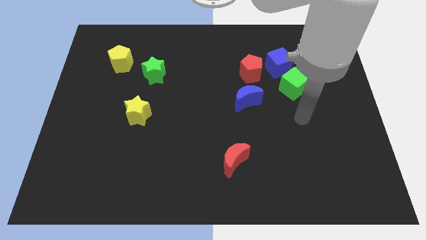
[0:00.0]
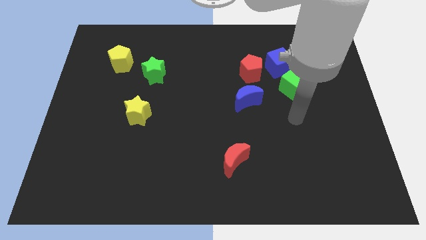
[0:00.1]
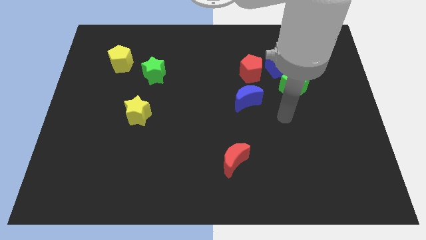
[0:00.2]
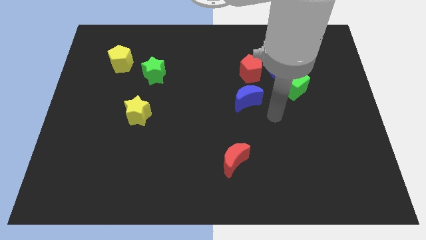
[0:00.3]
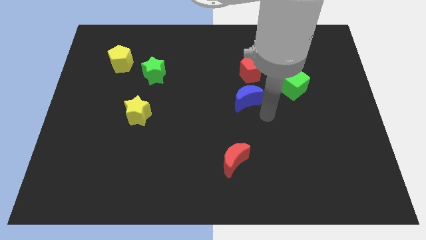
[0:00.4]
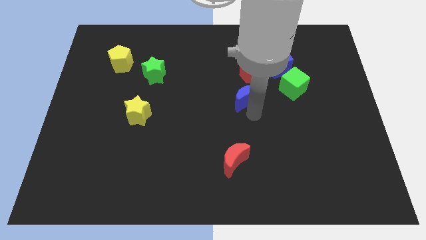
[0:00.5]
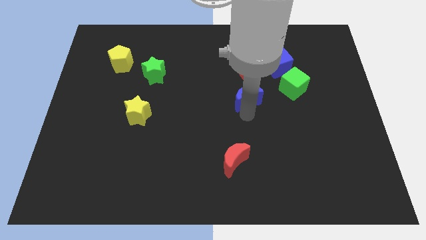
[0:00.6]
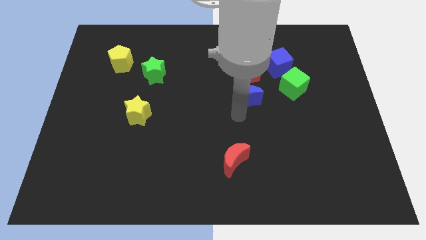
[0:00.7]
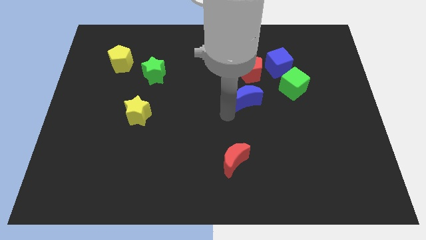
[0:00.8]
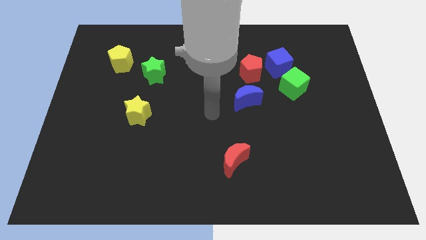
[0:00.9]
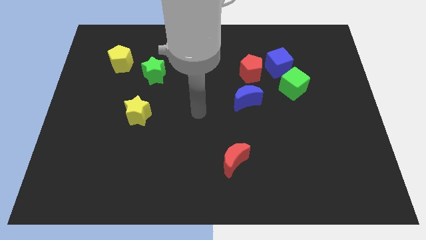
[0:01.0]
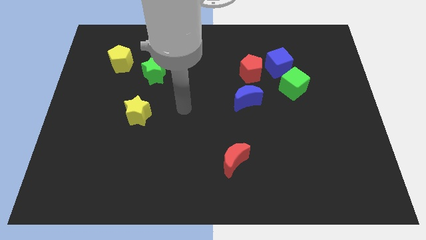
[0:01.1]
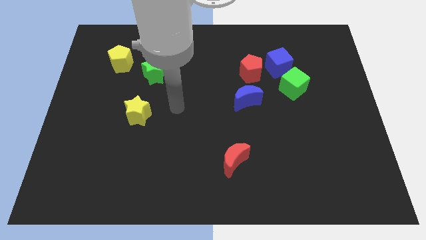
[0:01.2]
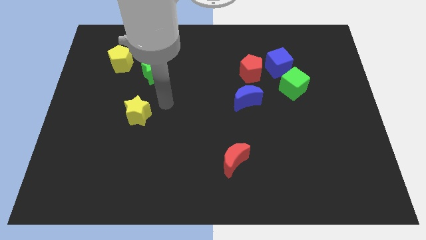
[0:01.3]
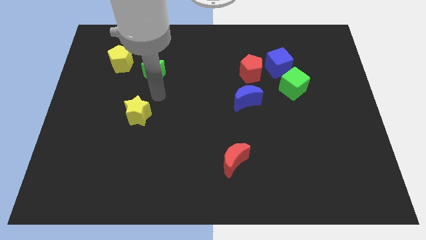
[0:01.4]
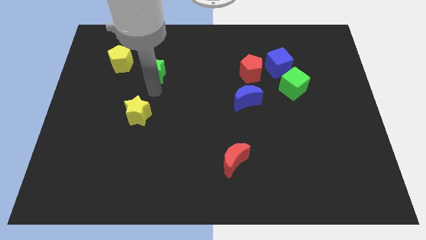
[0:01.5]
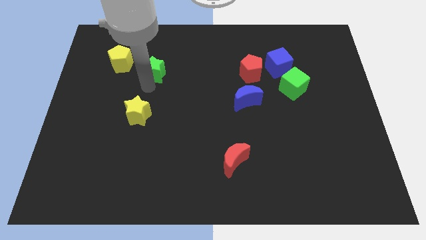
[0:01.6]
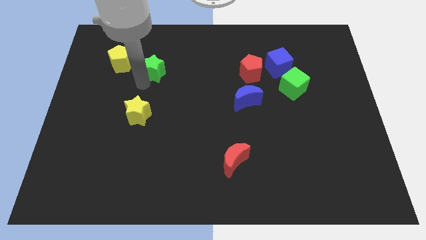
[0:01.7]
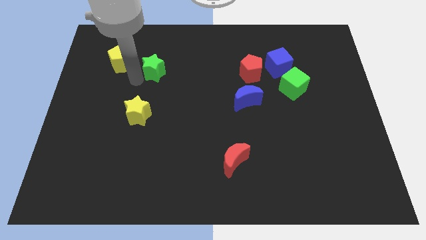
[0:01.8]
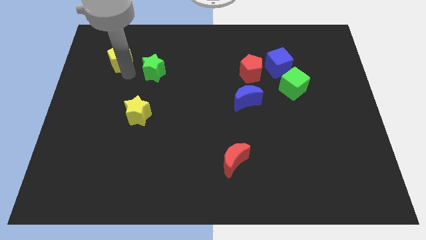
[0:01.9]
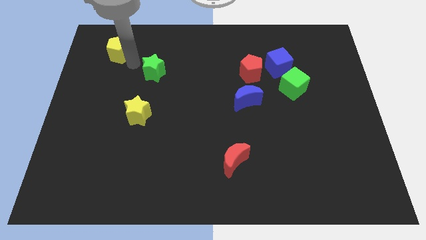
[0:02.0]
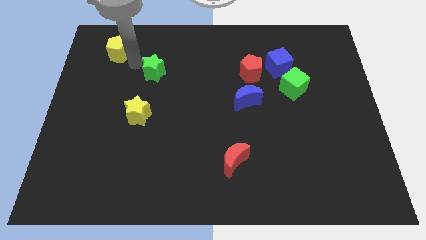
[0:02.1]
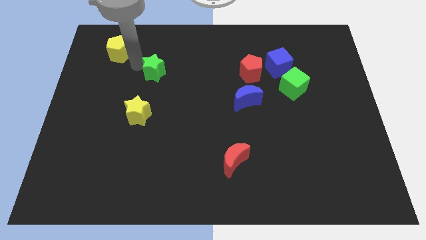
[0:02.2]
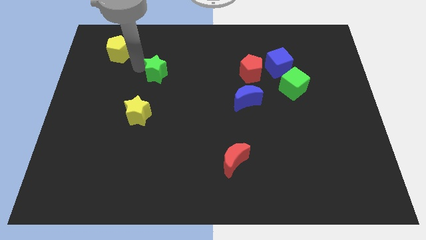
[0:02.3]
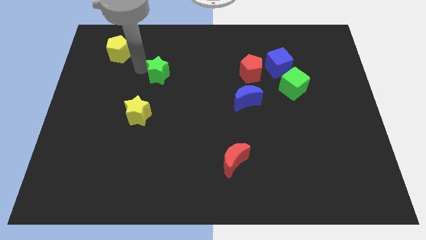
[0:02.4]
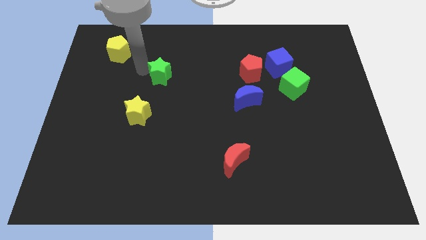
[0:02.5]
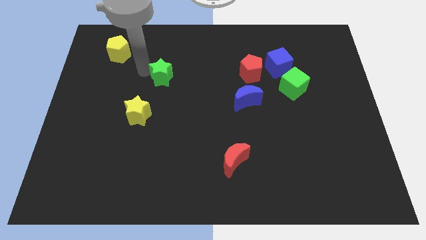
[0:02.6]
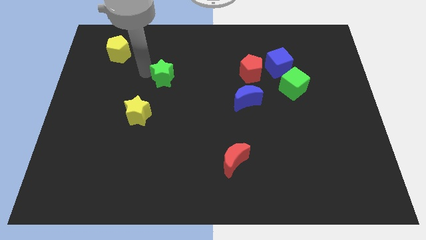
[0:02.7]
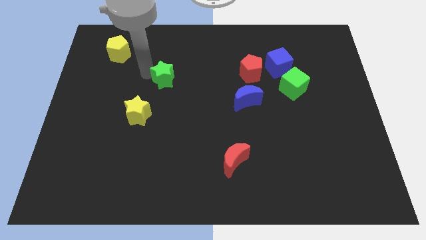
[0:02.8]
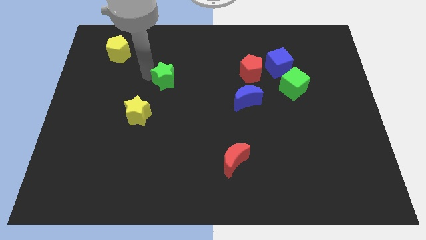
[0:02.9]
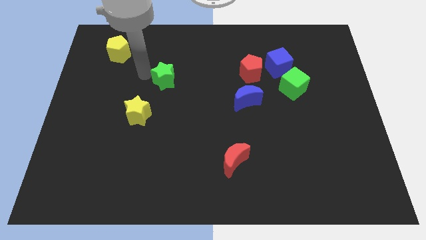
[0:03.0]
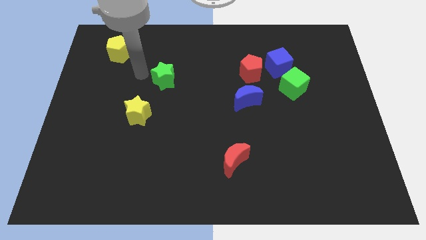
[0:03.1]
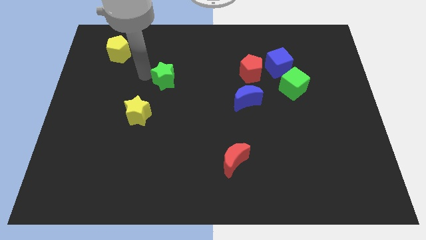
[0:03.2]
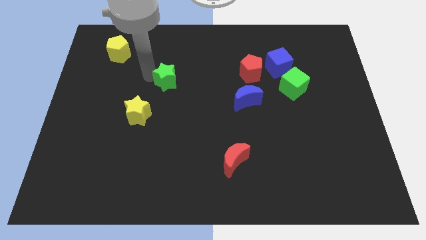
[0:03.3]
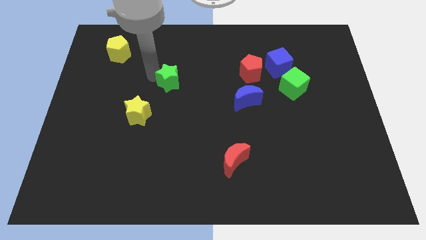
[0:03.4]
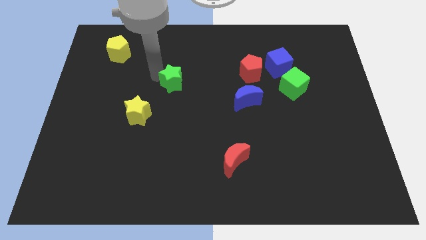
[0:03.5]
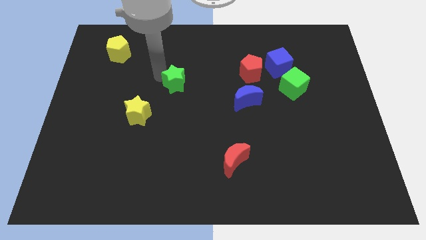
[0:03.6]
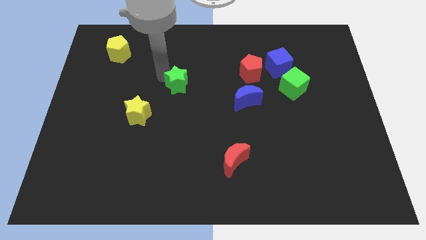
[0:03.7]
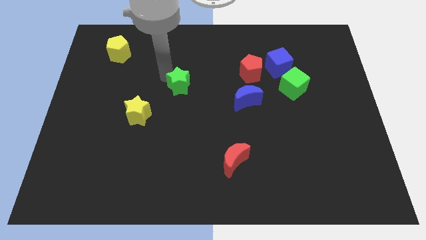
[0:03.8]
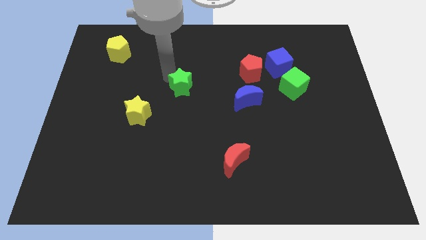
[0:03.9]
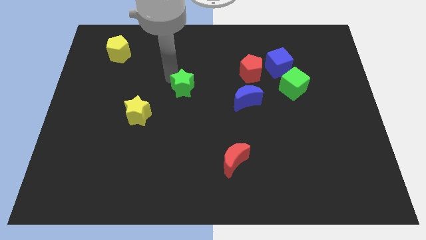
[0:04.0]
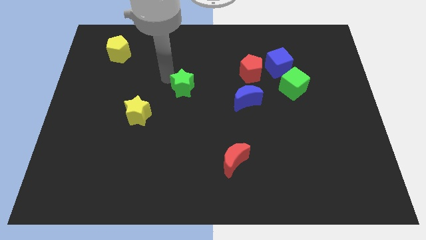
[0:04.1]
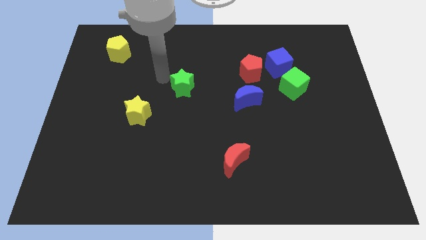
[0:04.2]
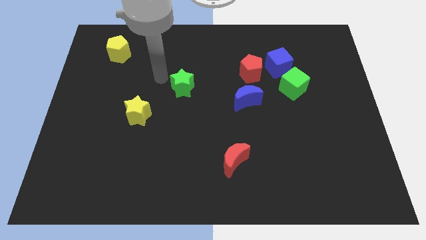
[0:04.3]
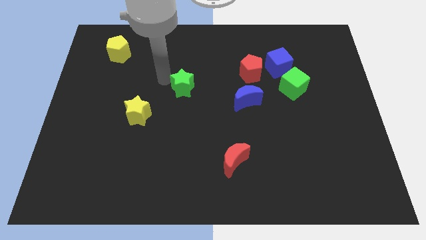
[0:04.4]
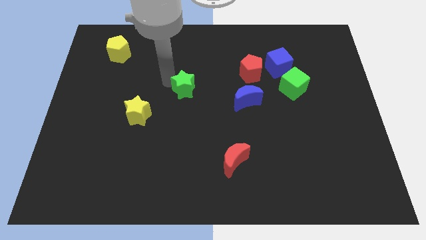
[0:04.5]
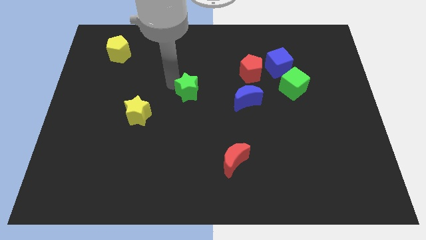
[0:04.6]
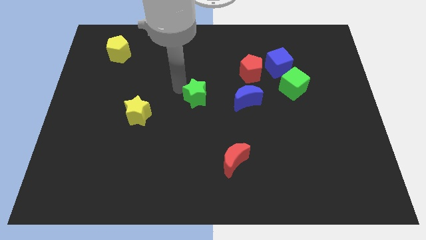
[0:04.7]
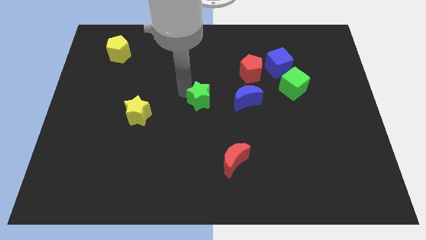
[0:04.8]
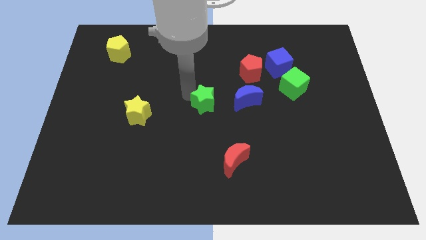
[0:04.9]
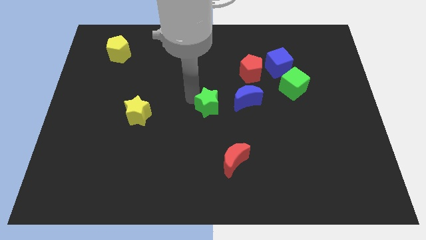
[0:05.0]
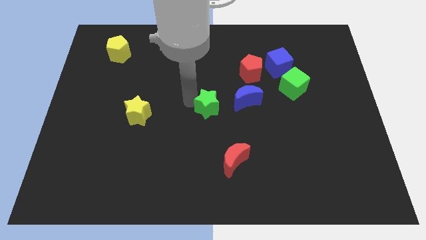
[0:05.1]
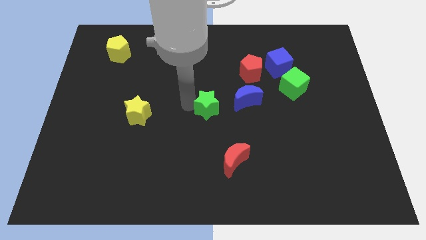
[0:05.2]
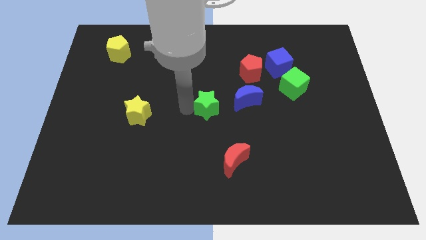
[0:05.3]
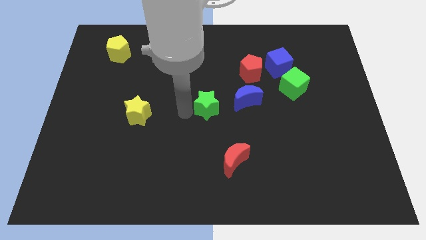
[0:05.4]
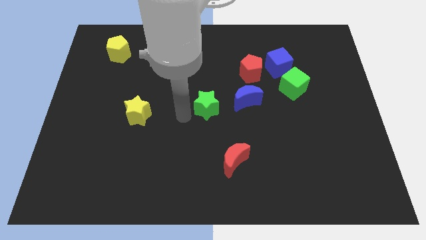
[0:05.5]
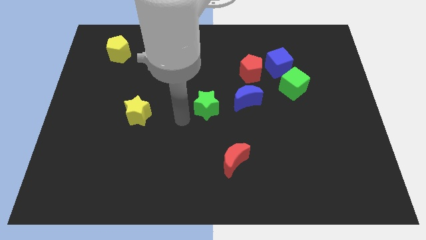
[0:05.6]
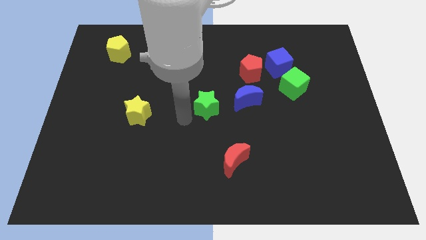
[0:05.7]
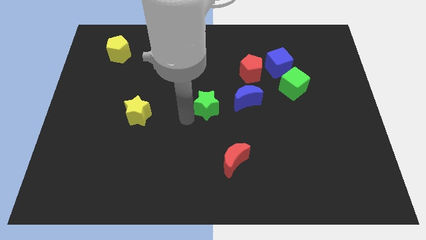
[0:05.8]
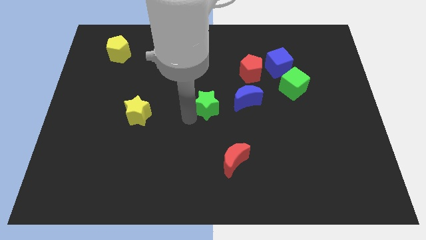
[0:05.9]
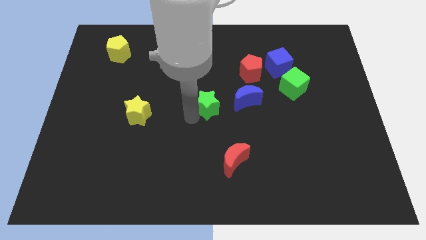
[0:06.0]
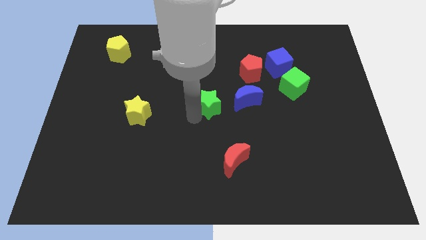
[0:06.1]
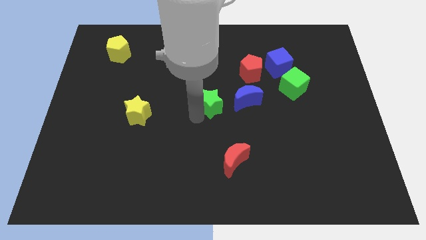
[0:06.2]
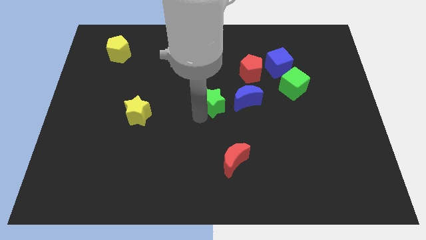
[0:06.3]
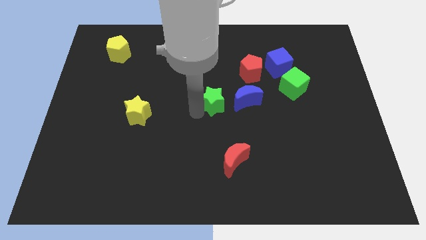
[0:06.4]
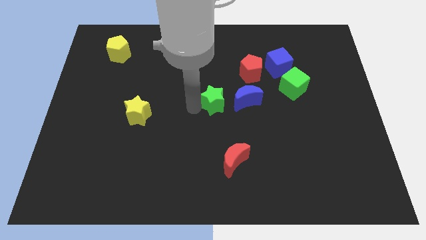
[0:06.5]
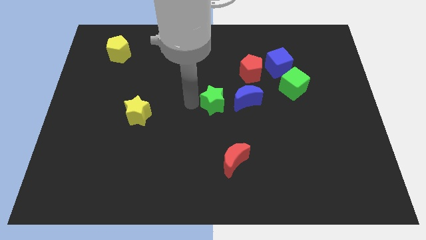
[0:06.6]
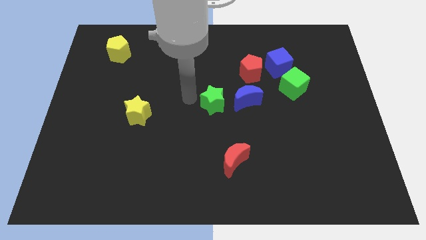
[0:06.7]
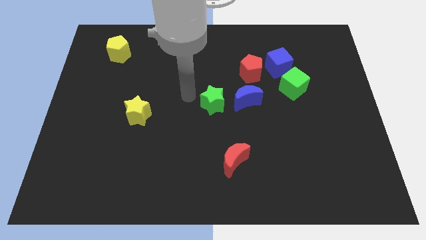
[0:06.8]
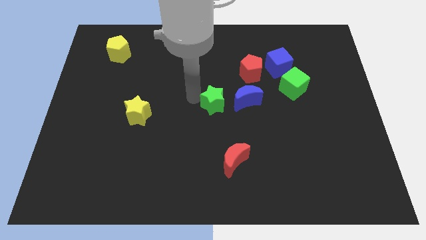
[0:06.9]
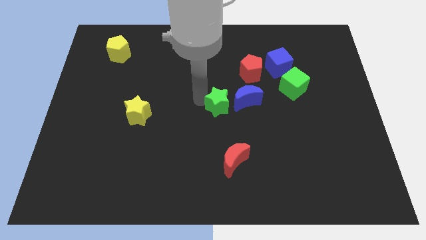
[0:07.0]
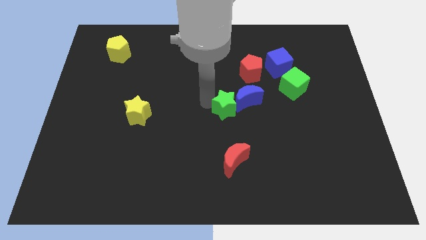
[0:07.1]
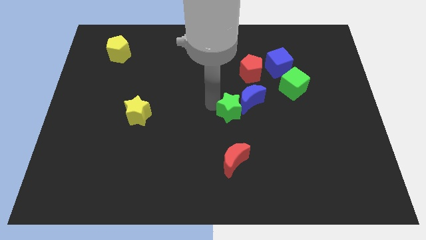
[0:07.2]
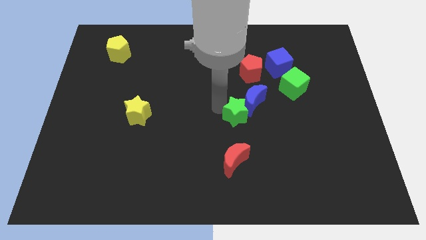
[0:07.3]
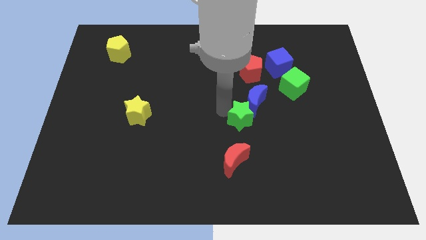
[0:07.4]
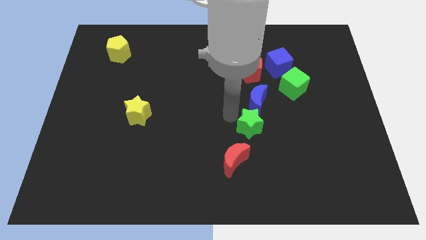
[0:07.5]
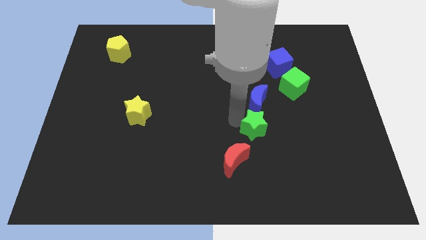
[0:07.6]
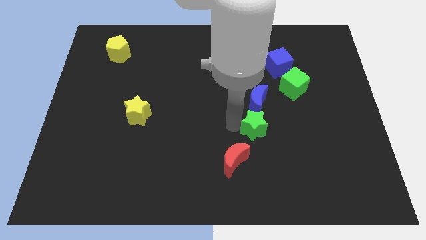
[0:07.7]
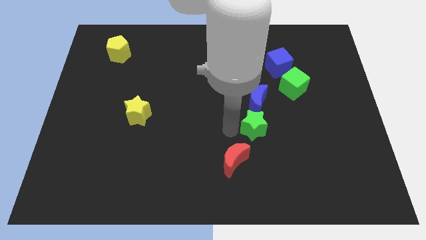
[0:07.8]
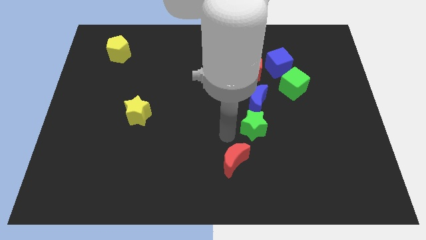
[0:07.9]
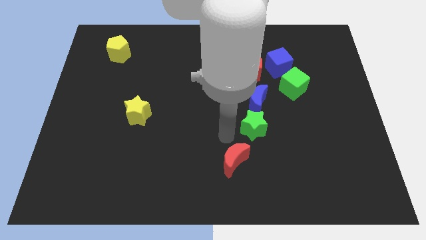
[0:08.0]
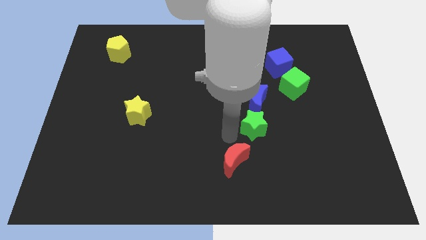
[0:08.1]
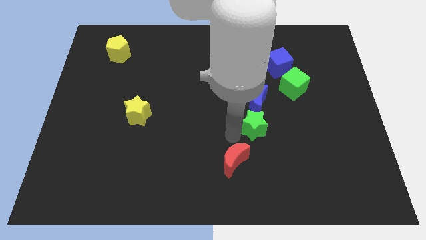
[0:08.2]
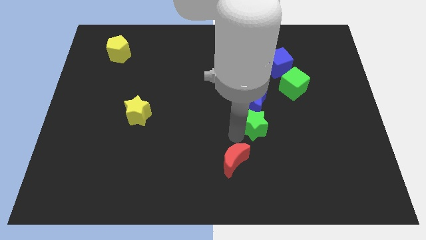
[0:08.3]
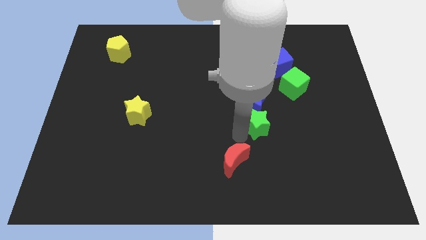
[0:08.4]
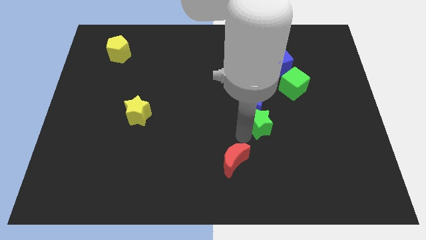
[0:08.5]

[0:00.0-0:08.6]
push the green star diagonally down and to the right of the blue moon
